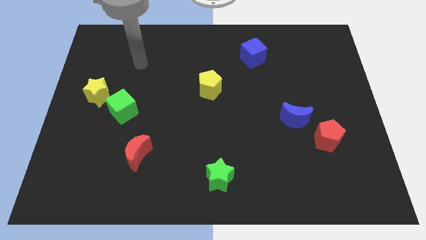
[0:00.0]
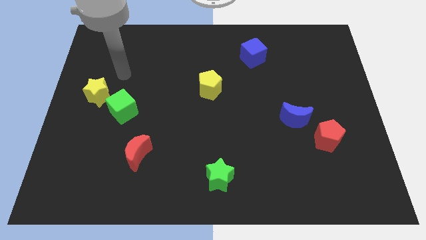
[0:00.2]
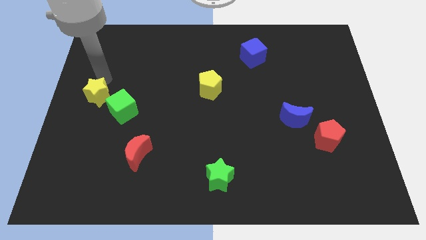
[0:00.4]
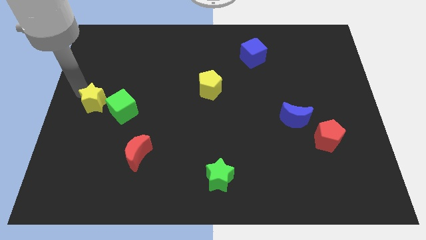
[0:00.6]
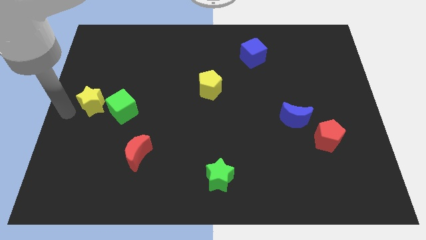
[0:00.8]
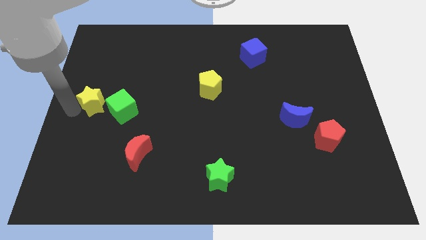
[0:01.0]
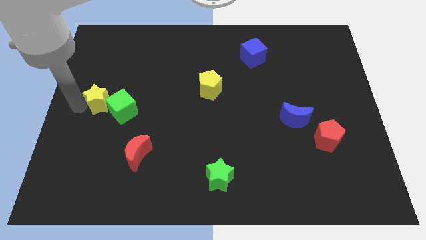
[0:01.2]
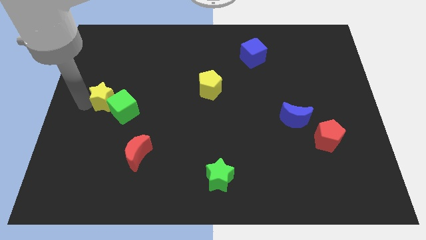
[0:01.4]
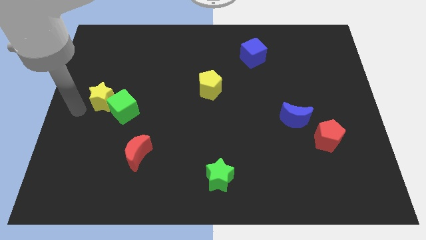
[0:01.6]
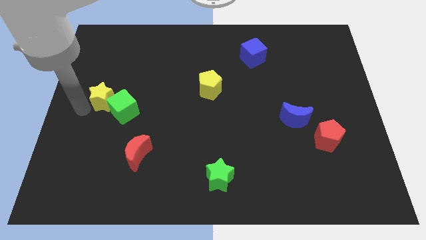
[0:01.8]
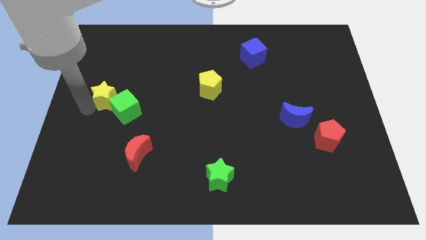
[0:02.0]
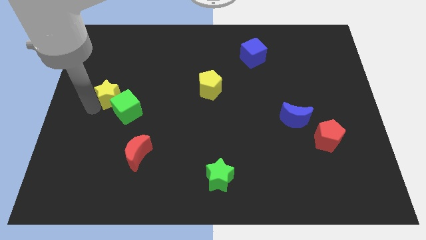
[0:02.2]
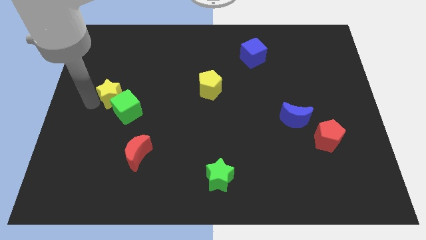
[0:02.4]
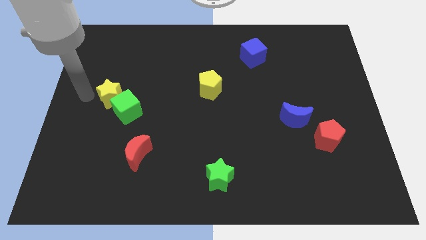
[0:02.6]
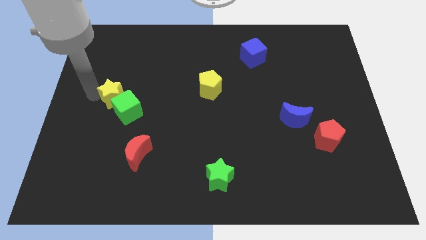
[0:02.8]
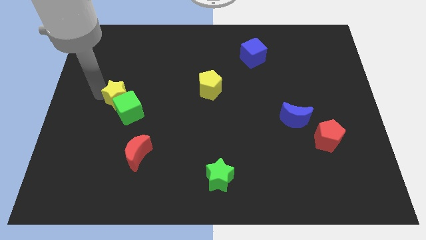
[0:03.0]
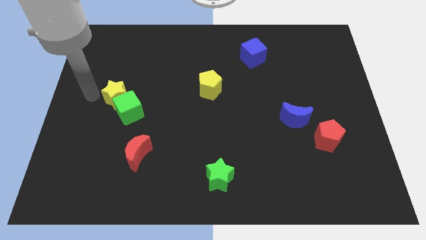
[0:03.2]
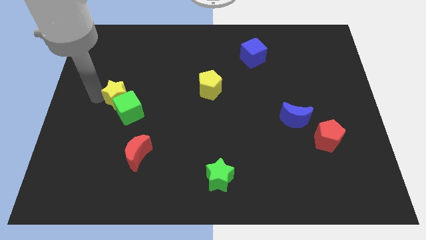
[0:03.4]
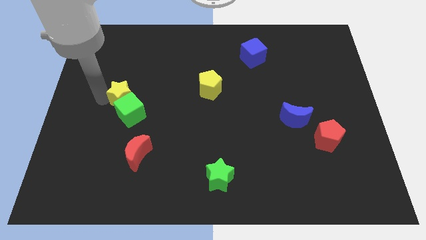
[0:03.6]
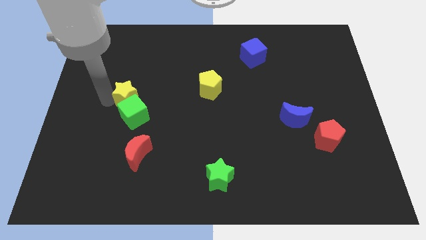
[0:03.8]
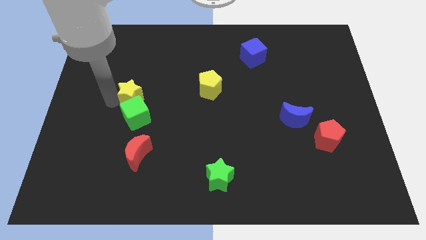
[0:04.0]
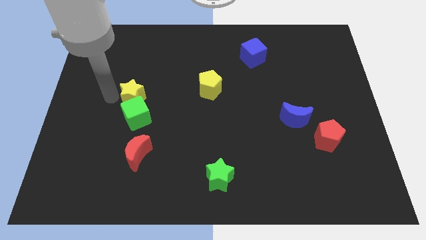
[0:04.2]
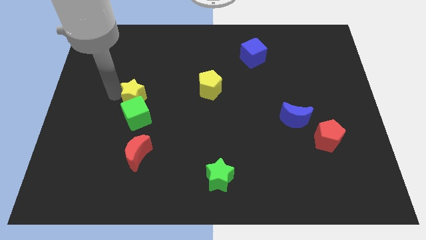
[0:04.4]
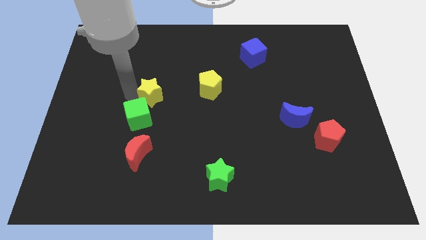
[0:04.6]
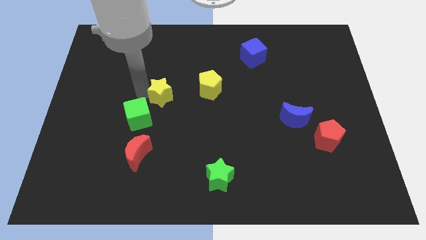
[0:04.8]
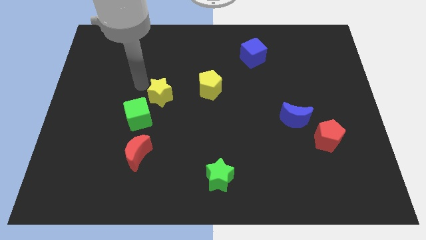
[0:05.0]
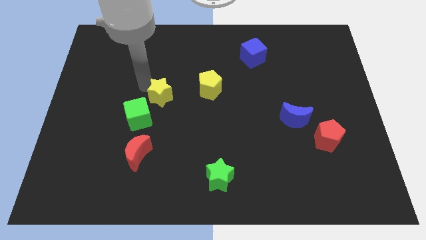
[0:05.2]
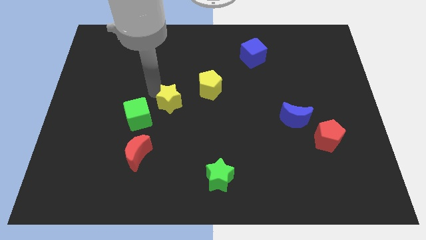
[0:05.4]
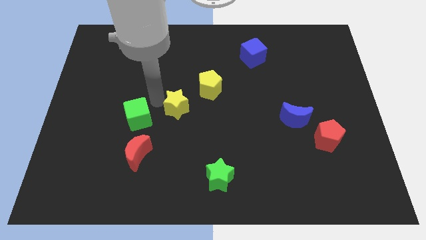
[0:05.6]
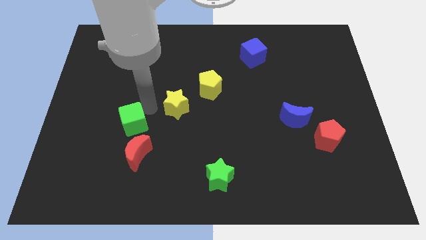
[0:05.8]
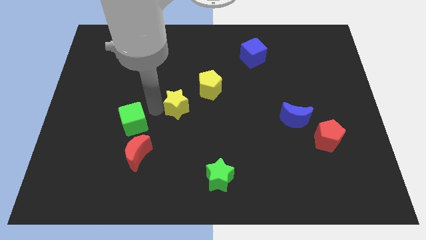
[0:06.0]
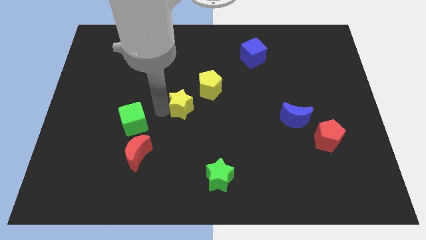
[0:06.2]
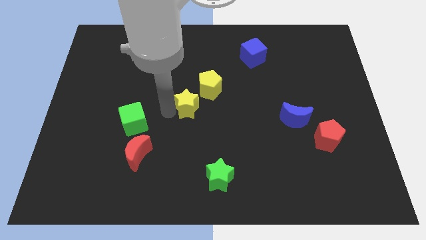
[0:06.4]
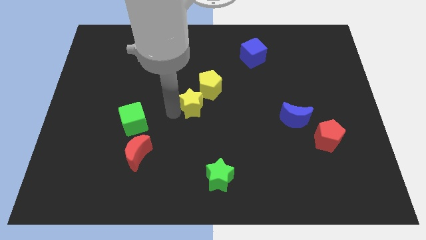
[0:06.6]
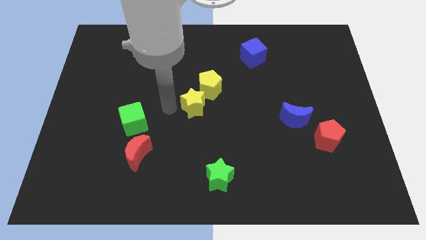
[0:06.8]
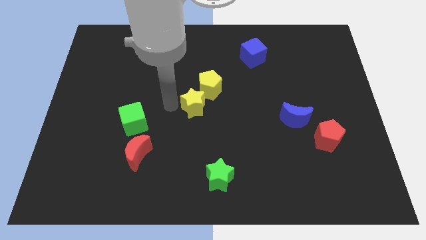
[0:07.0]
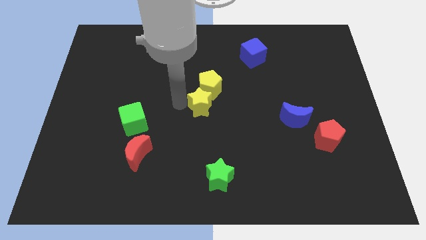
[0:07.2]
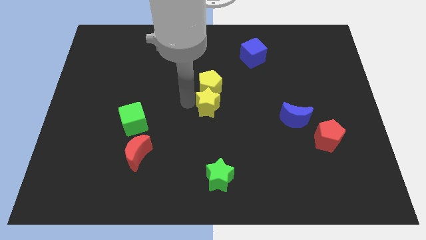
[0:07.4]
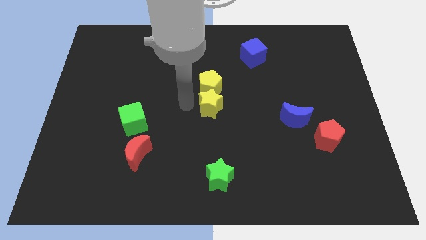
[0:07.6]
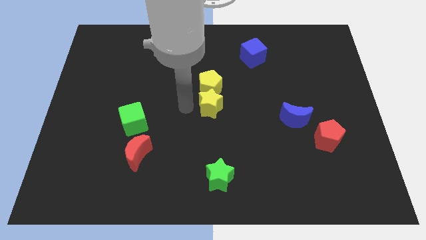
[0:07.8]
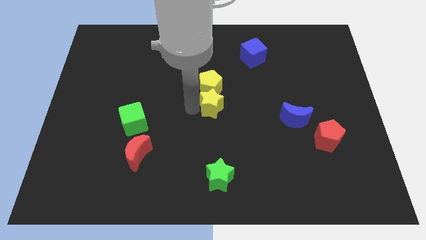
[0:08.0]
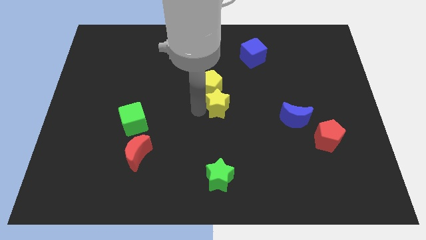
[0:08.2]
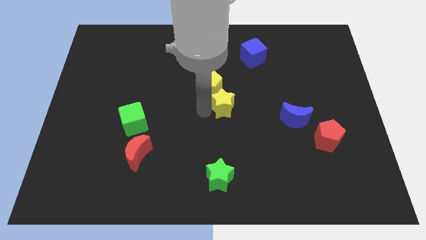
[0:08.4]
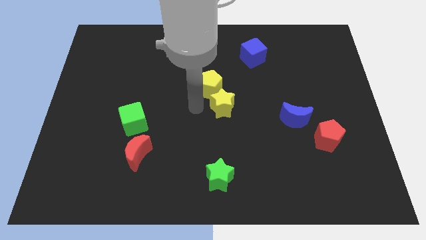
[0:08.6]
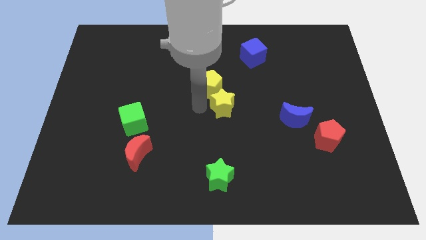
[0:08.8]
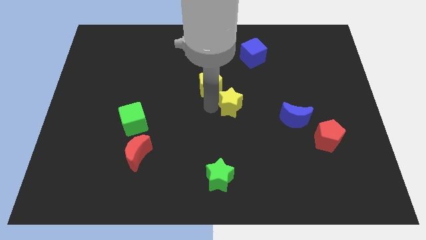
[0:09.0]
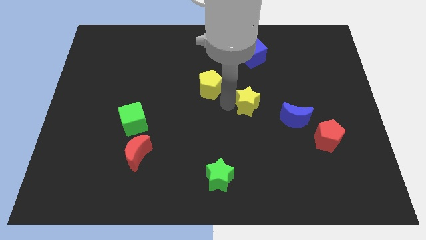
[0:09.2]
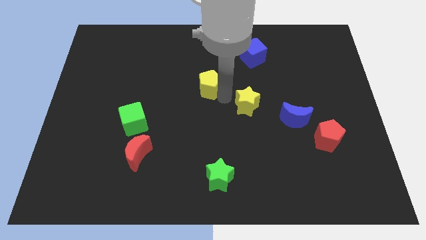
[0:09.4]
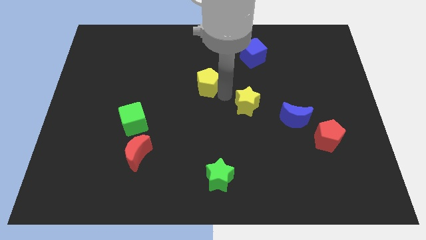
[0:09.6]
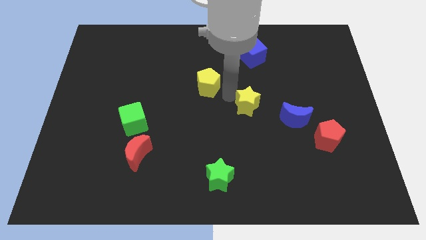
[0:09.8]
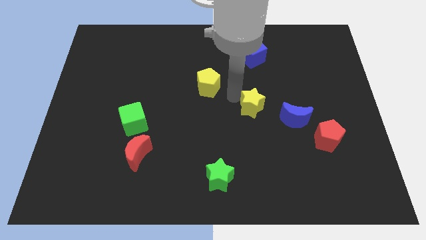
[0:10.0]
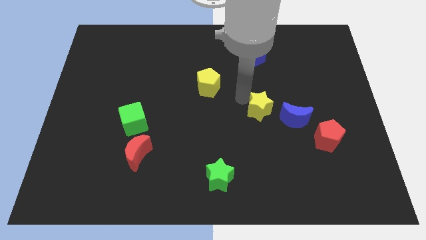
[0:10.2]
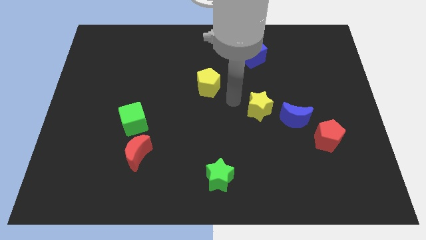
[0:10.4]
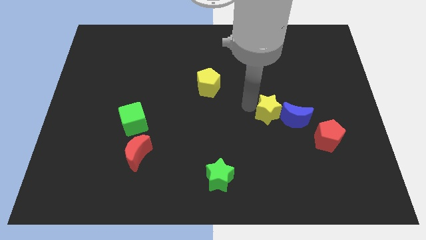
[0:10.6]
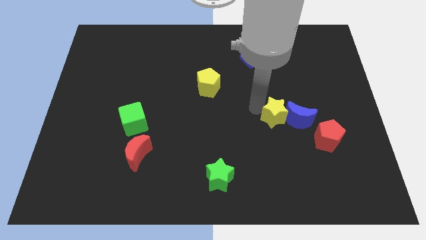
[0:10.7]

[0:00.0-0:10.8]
slide the yellow star close to the blue moon

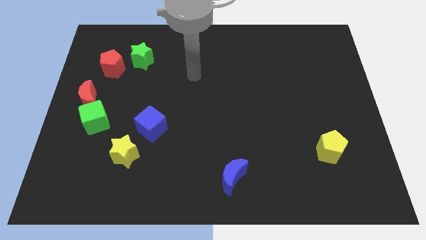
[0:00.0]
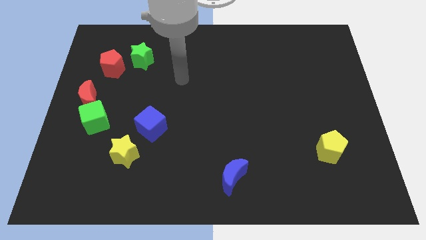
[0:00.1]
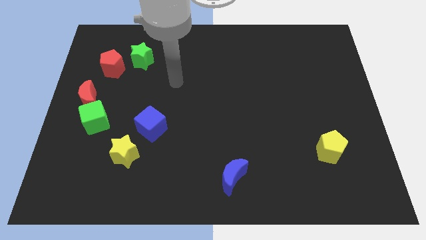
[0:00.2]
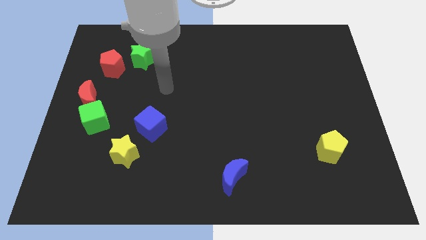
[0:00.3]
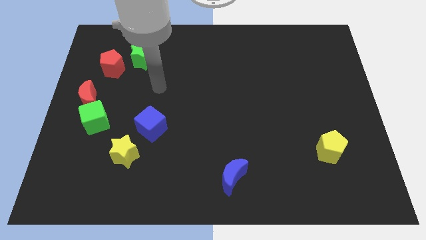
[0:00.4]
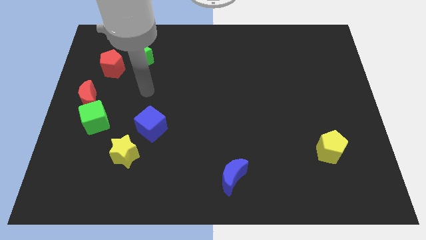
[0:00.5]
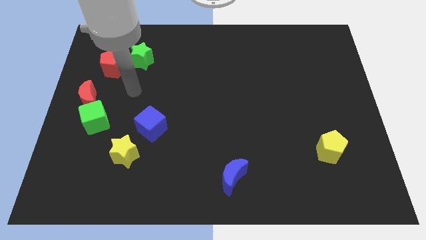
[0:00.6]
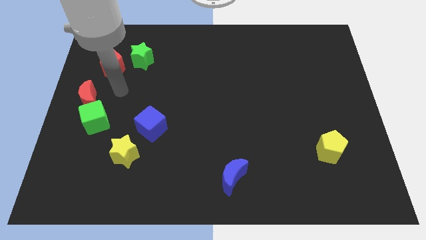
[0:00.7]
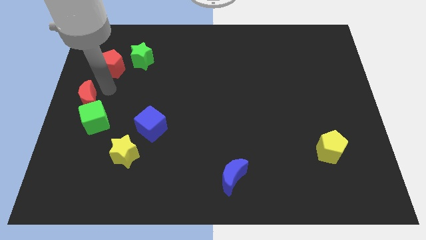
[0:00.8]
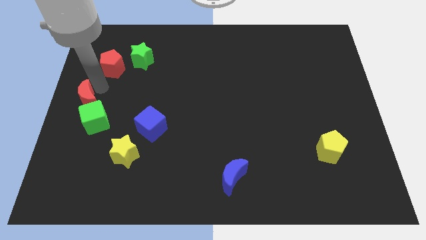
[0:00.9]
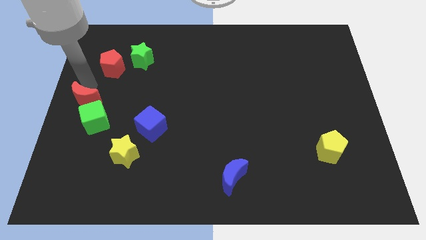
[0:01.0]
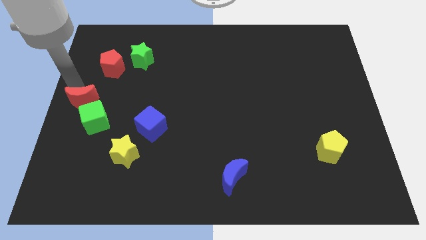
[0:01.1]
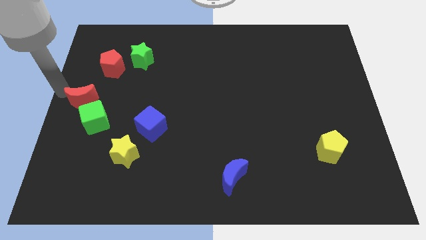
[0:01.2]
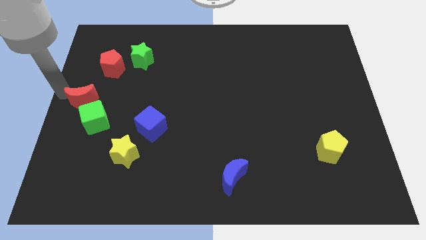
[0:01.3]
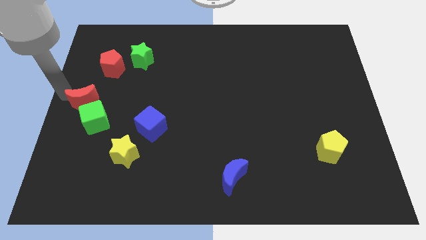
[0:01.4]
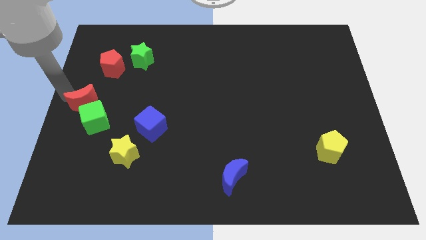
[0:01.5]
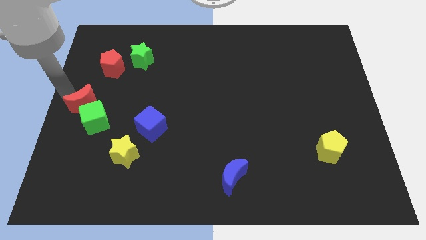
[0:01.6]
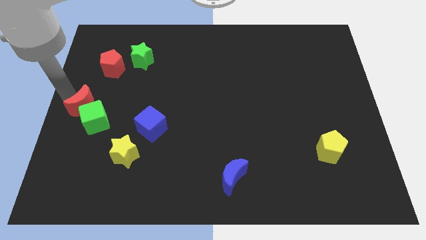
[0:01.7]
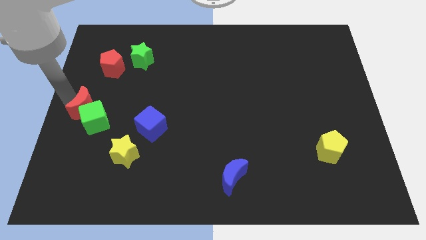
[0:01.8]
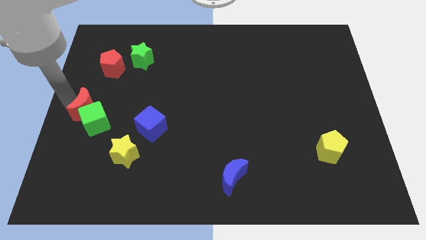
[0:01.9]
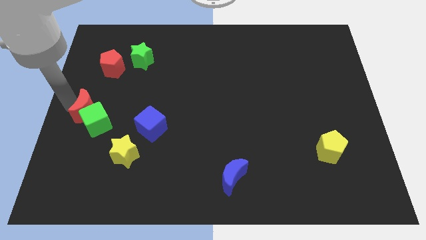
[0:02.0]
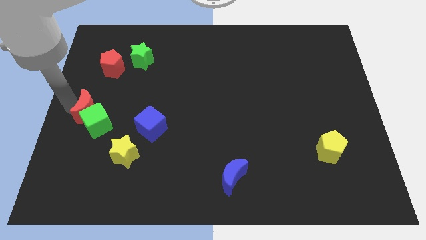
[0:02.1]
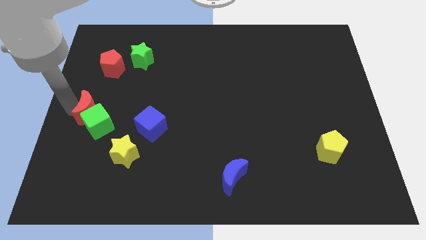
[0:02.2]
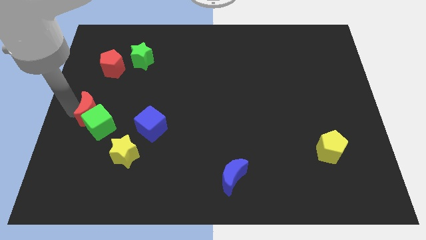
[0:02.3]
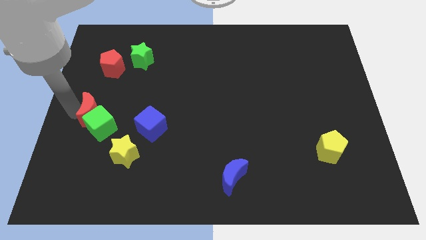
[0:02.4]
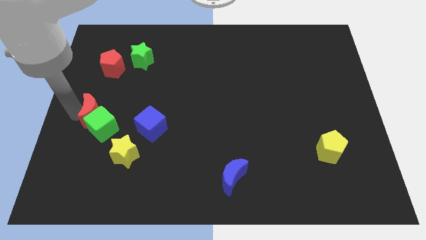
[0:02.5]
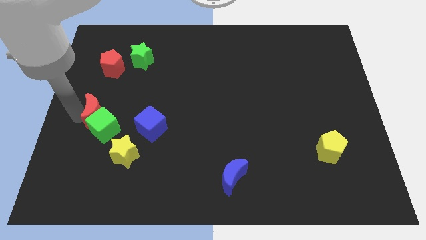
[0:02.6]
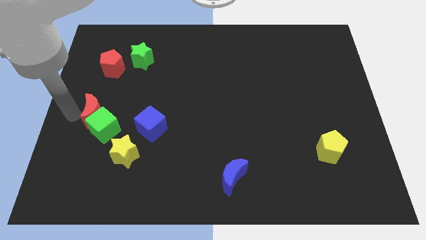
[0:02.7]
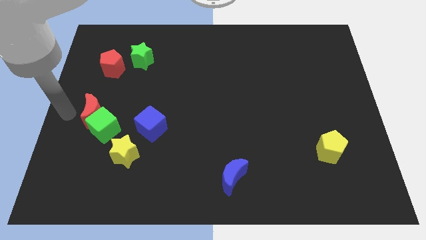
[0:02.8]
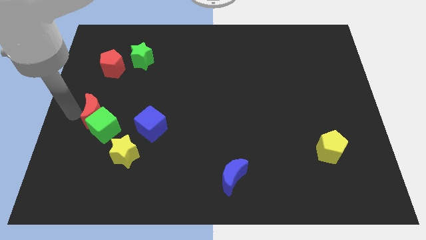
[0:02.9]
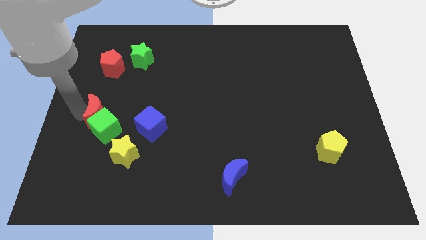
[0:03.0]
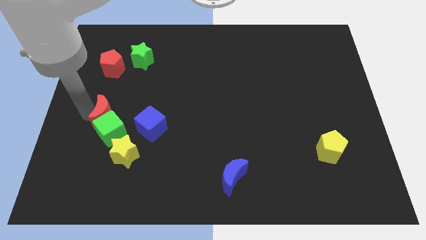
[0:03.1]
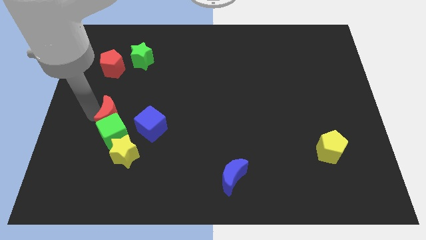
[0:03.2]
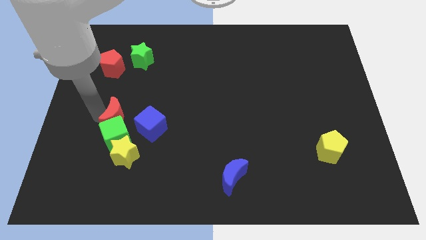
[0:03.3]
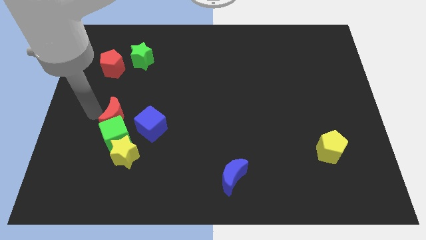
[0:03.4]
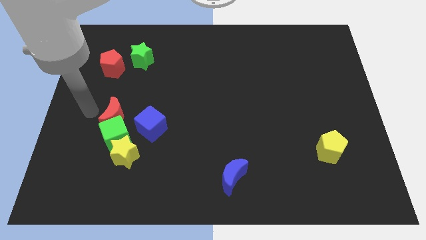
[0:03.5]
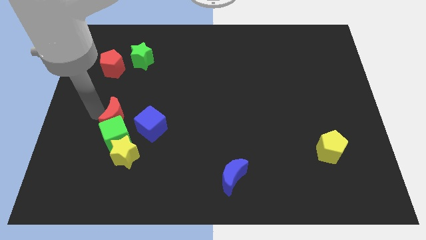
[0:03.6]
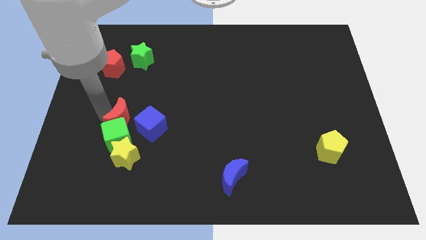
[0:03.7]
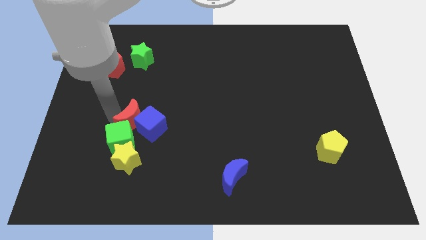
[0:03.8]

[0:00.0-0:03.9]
put the red moon close to the blue cube
